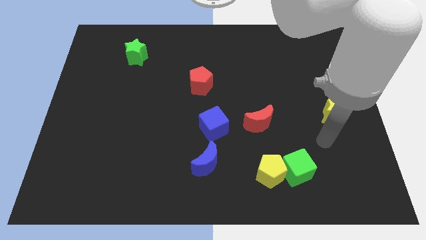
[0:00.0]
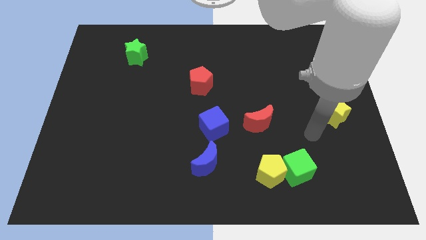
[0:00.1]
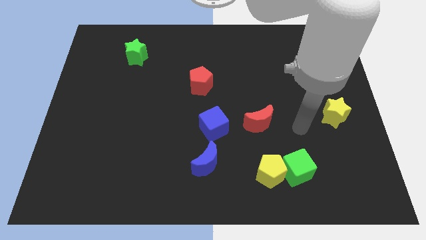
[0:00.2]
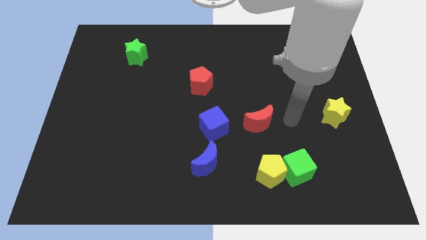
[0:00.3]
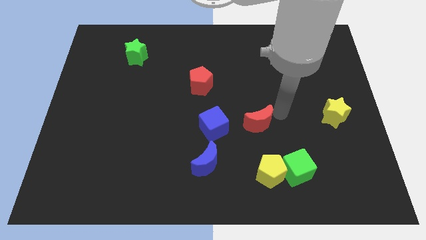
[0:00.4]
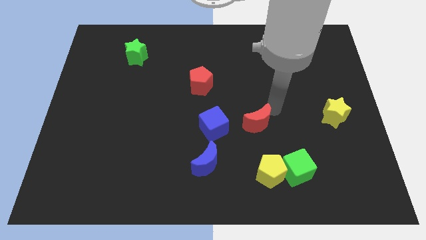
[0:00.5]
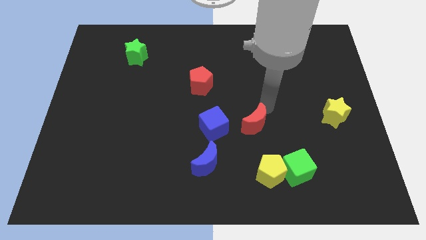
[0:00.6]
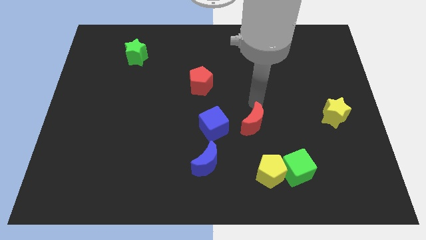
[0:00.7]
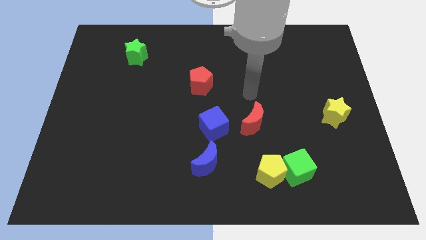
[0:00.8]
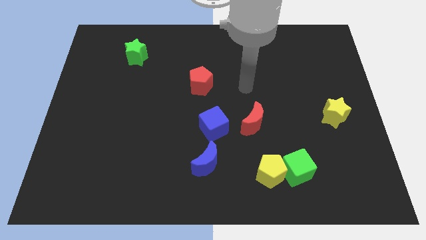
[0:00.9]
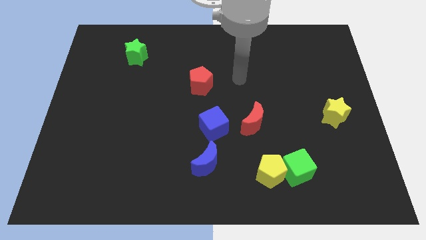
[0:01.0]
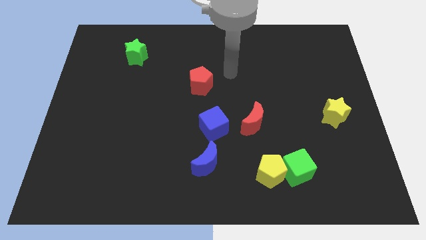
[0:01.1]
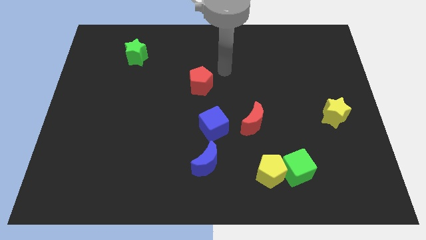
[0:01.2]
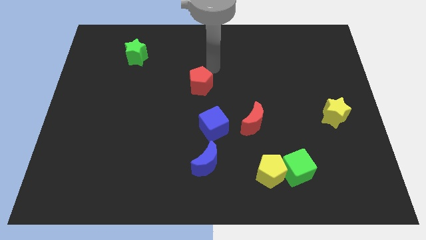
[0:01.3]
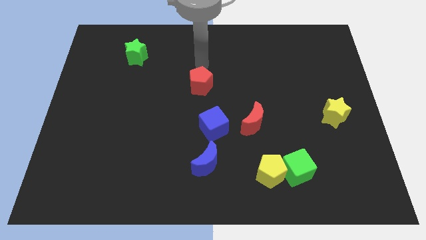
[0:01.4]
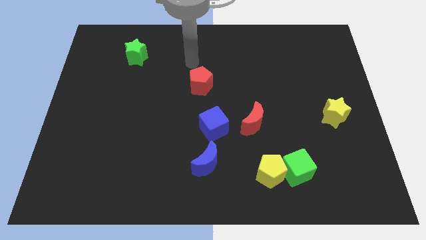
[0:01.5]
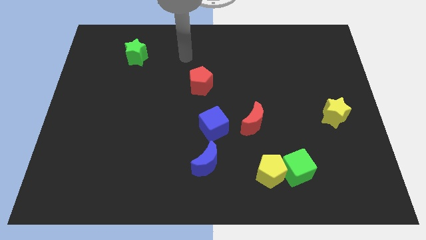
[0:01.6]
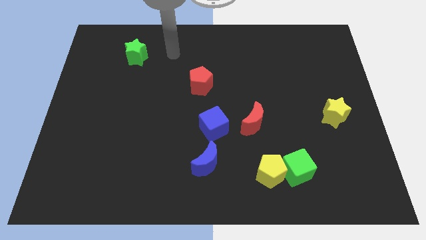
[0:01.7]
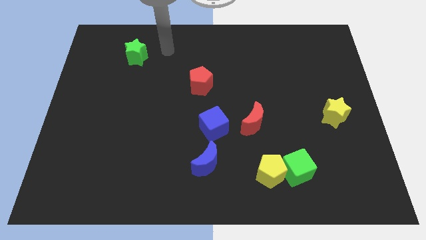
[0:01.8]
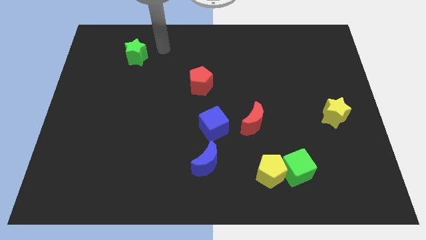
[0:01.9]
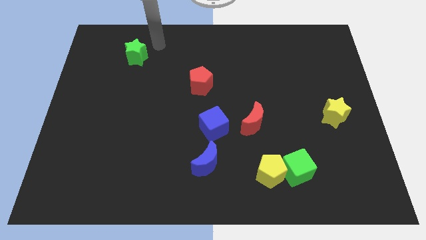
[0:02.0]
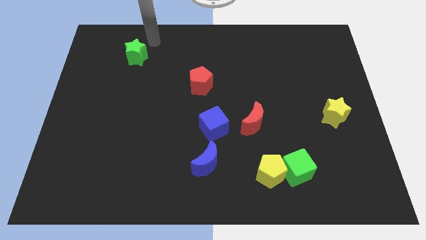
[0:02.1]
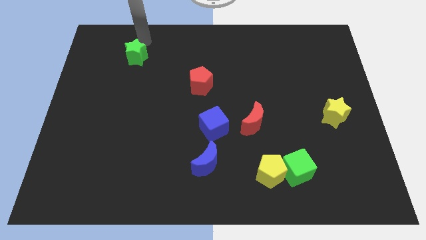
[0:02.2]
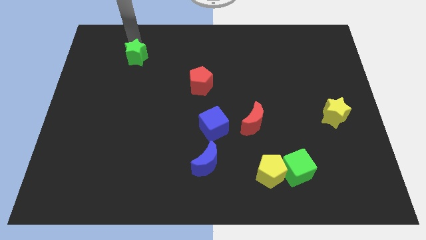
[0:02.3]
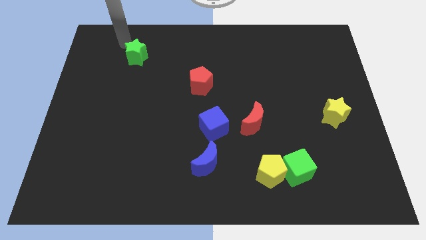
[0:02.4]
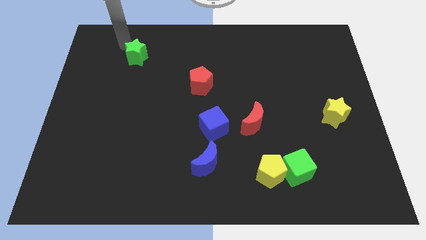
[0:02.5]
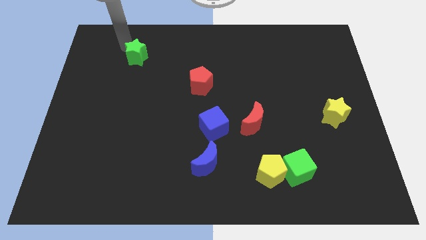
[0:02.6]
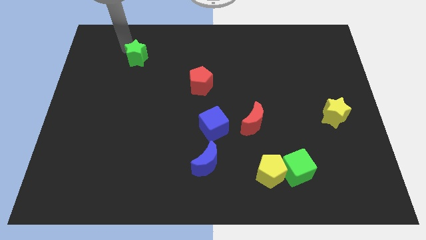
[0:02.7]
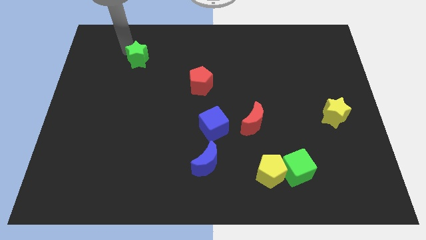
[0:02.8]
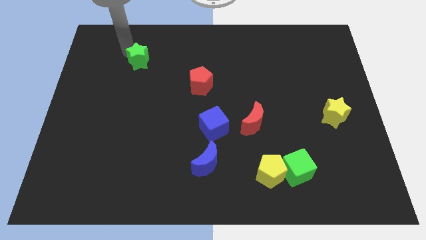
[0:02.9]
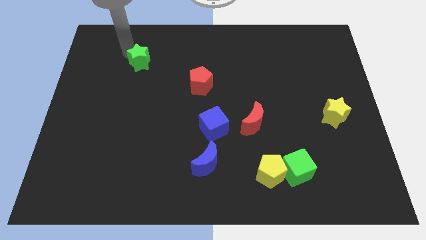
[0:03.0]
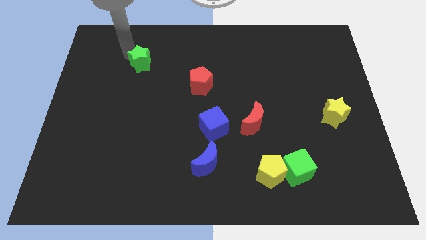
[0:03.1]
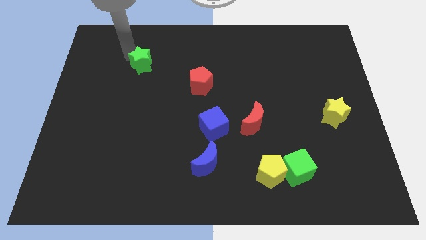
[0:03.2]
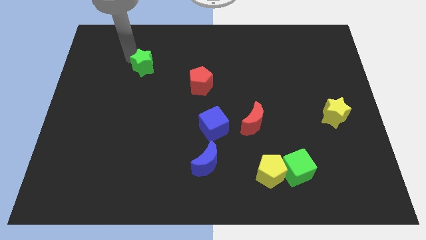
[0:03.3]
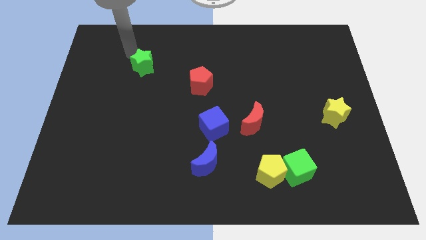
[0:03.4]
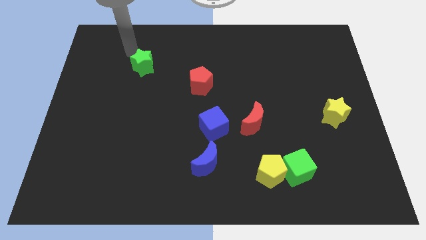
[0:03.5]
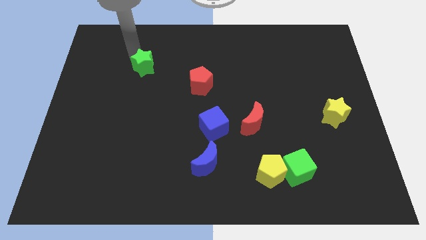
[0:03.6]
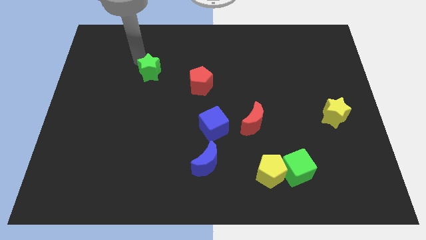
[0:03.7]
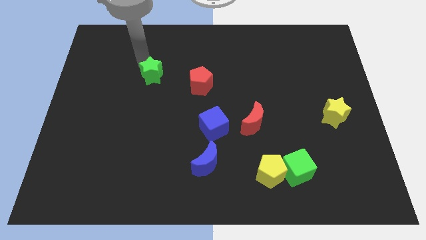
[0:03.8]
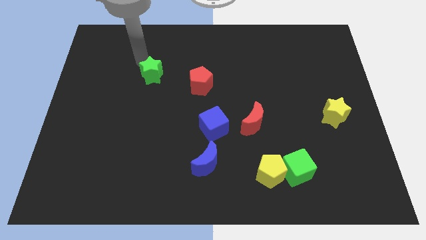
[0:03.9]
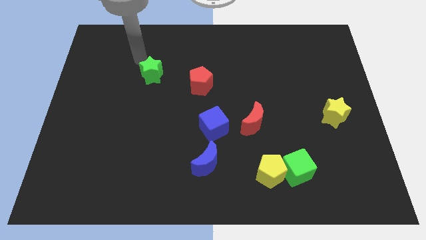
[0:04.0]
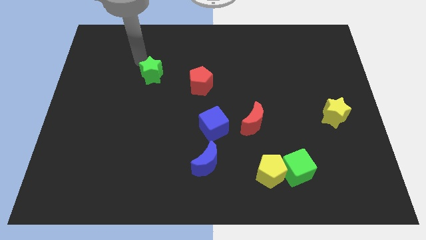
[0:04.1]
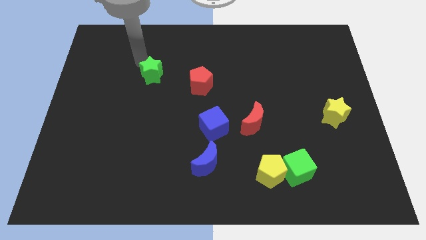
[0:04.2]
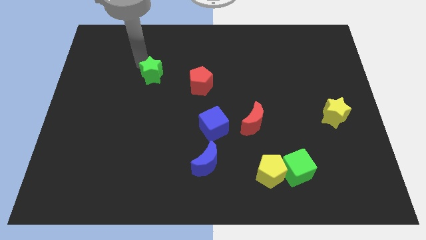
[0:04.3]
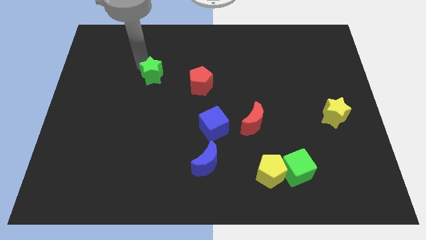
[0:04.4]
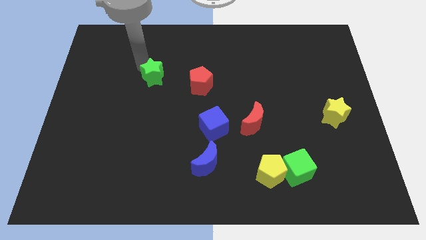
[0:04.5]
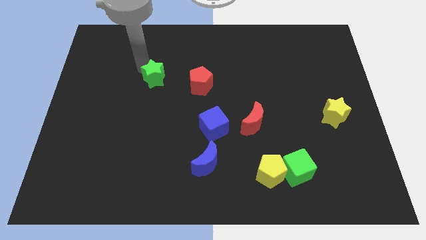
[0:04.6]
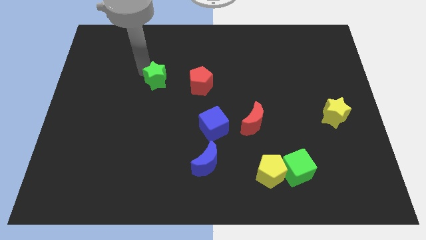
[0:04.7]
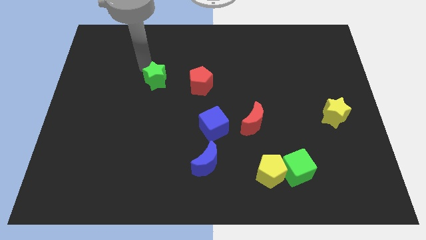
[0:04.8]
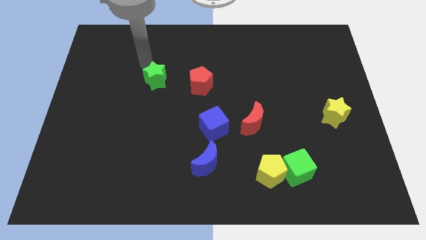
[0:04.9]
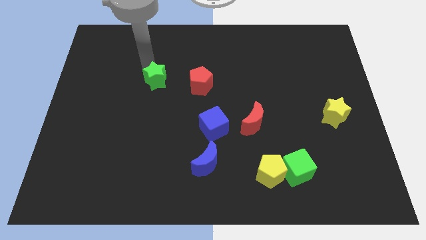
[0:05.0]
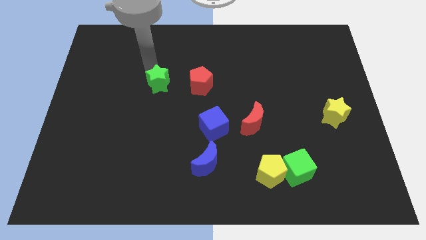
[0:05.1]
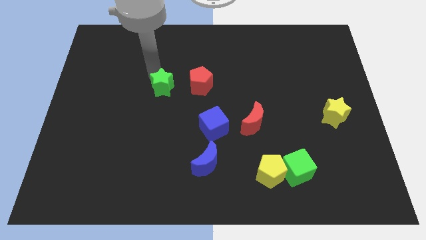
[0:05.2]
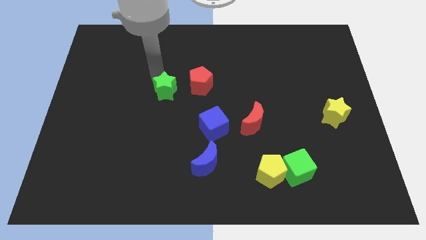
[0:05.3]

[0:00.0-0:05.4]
move the green star to the center of the board

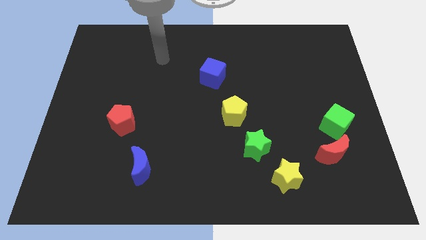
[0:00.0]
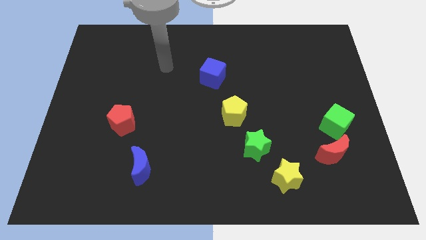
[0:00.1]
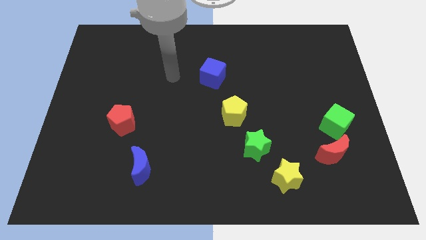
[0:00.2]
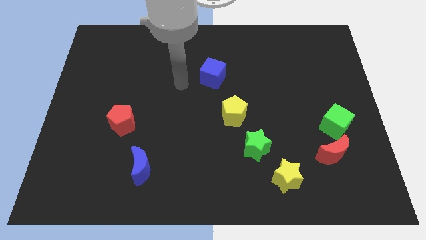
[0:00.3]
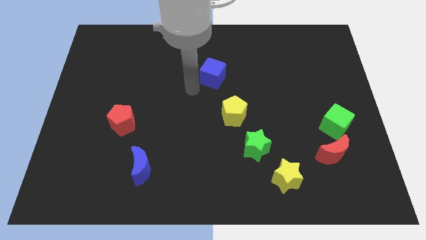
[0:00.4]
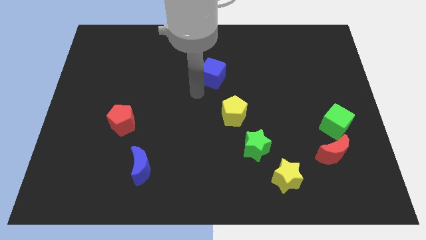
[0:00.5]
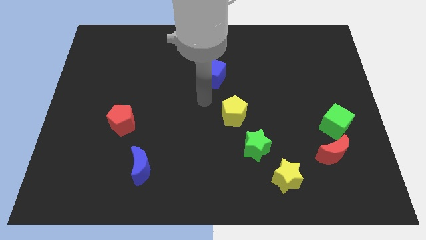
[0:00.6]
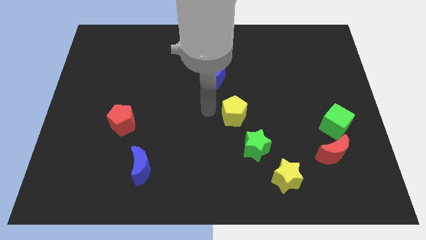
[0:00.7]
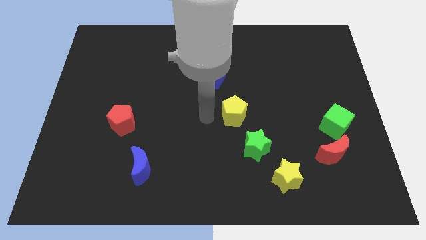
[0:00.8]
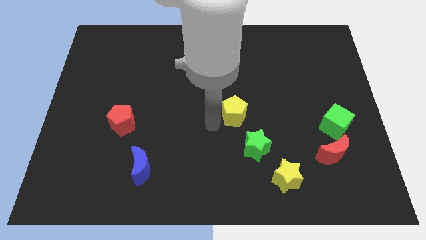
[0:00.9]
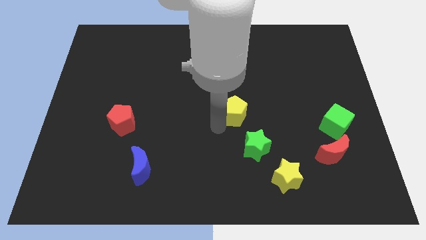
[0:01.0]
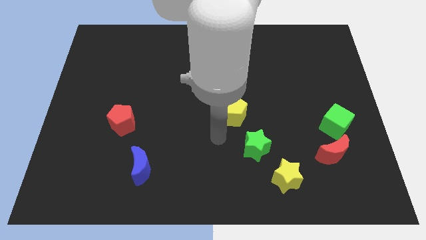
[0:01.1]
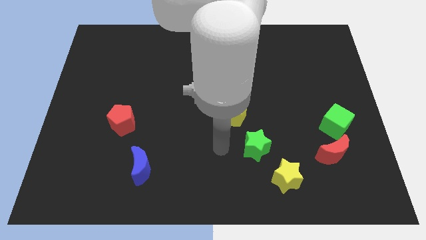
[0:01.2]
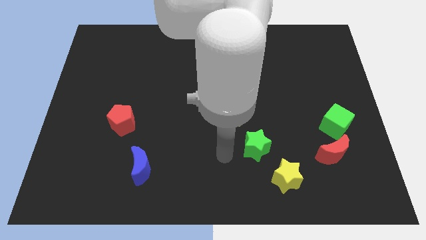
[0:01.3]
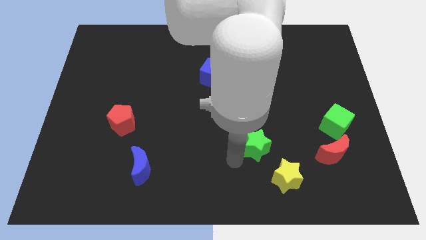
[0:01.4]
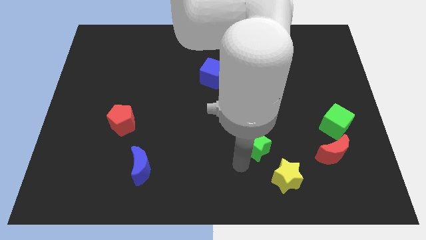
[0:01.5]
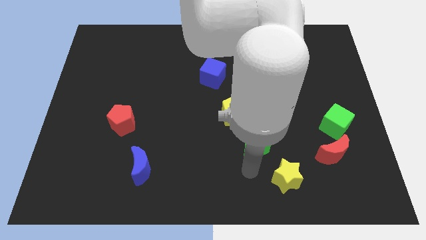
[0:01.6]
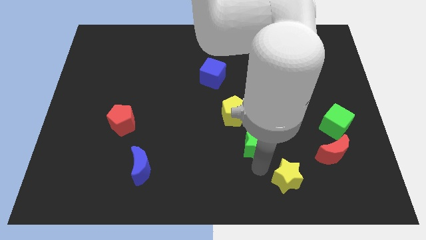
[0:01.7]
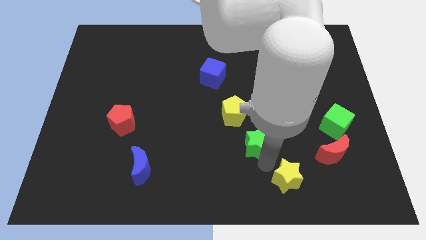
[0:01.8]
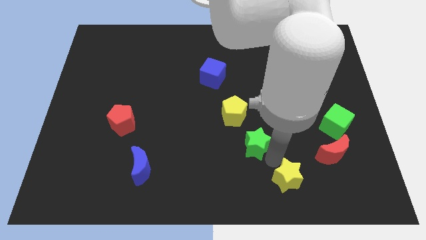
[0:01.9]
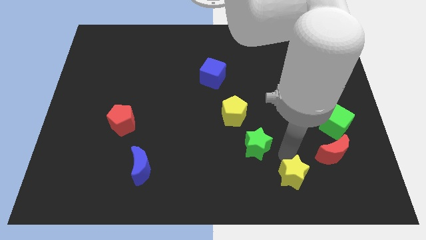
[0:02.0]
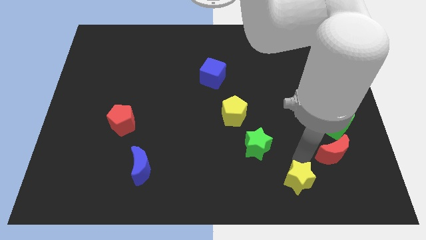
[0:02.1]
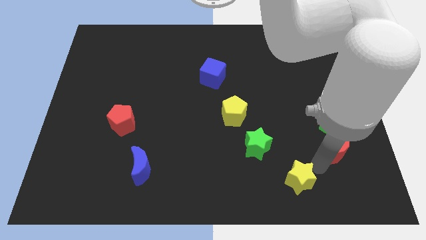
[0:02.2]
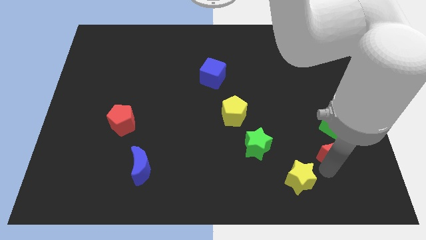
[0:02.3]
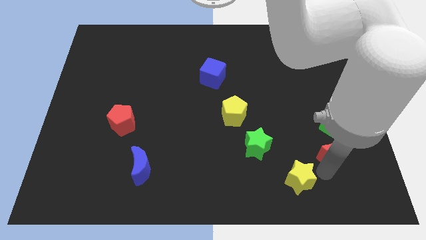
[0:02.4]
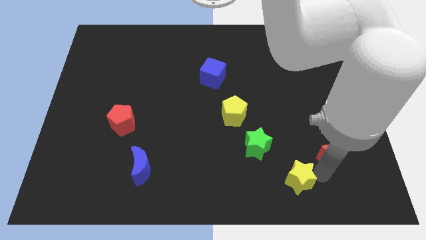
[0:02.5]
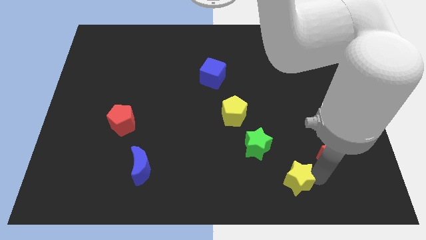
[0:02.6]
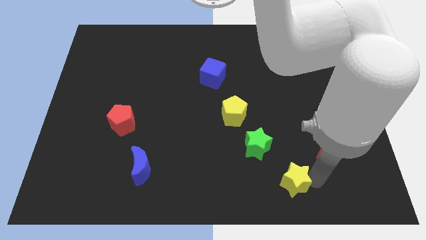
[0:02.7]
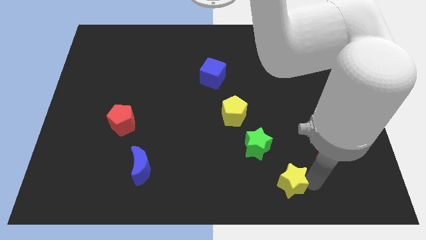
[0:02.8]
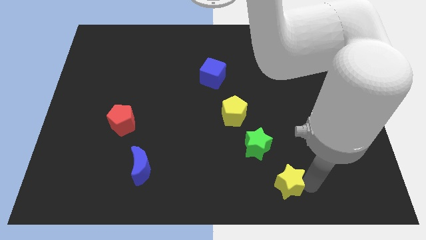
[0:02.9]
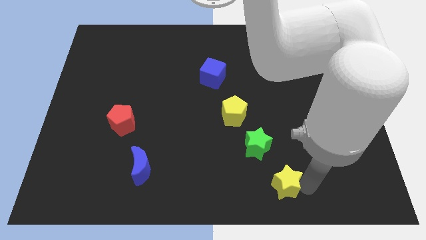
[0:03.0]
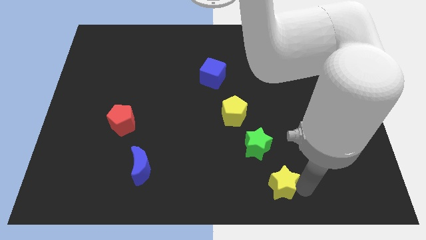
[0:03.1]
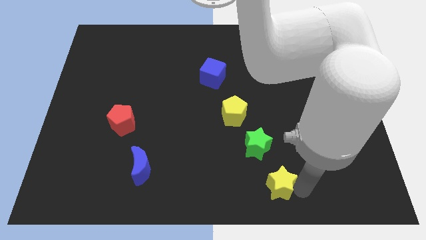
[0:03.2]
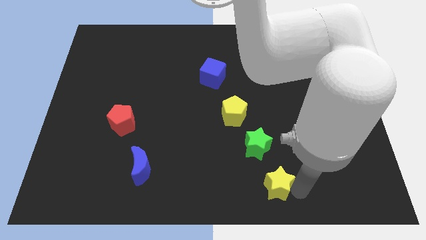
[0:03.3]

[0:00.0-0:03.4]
move the yellow star to the bottom side
